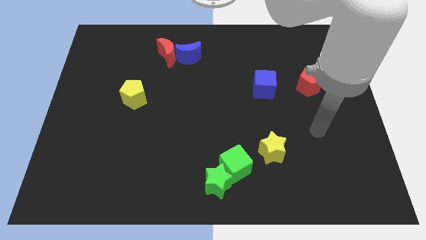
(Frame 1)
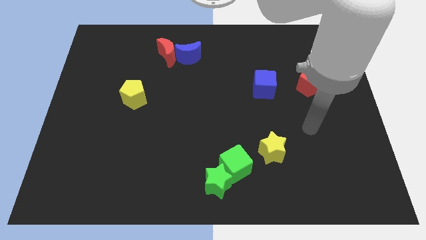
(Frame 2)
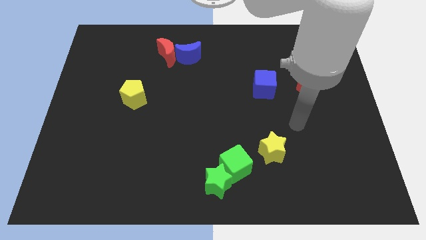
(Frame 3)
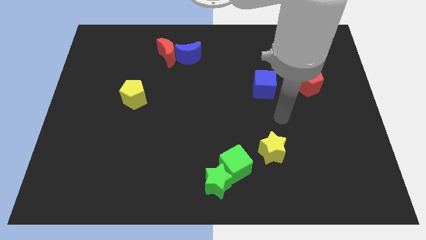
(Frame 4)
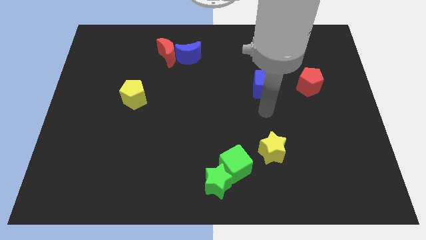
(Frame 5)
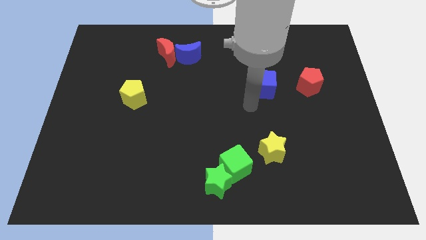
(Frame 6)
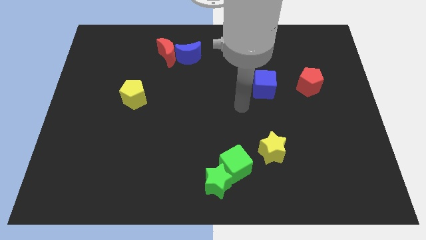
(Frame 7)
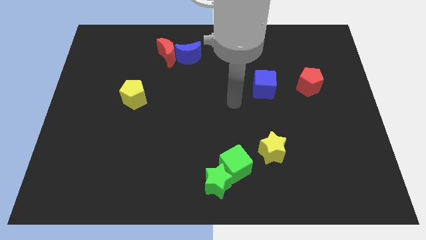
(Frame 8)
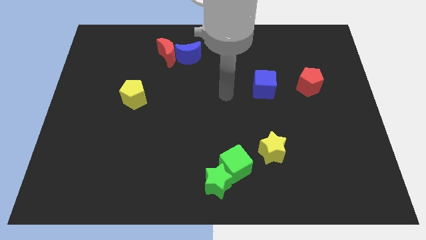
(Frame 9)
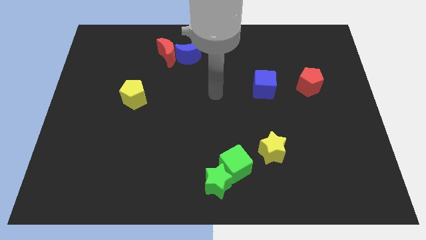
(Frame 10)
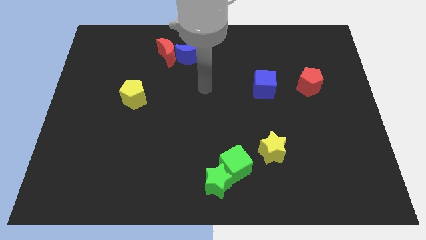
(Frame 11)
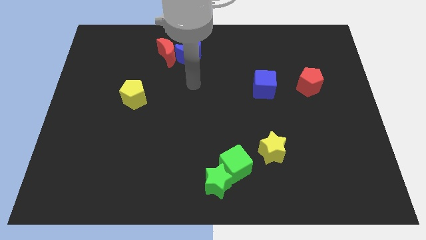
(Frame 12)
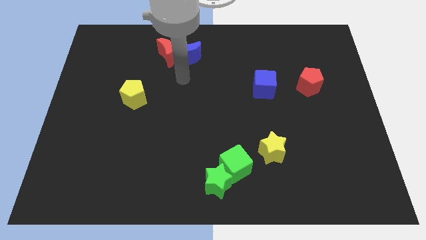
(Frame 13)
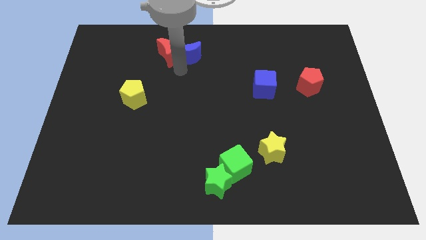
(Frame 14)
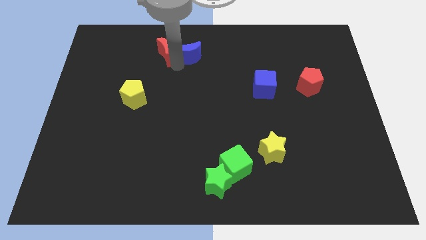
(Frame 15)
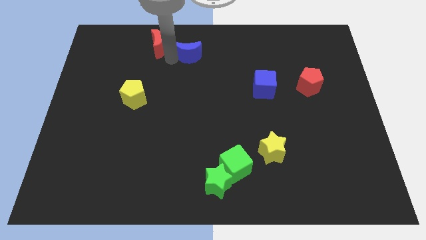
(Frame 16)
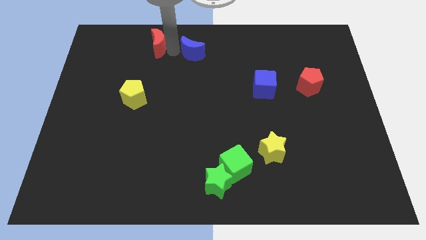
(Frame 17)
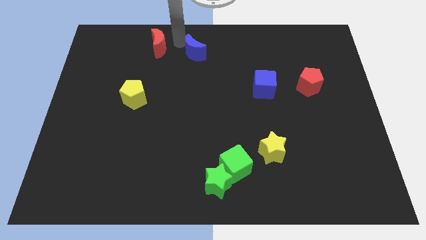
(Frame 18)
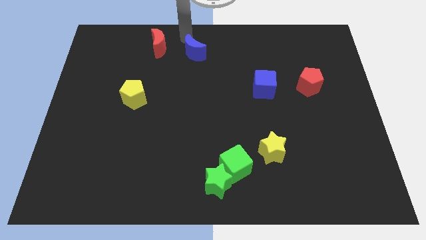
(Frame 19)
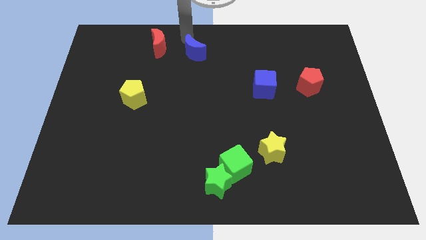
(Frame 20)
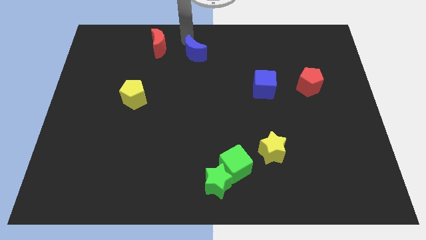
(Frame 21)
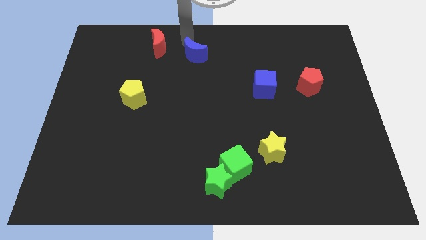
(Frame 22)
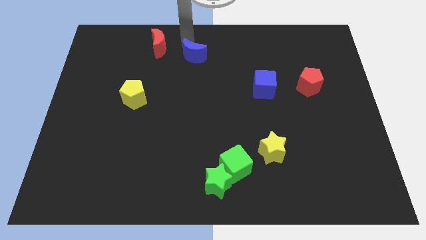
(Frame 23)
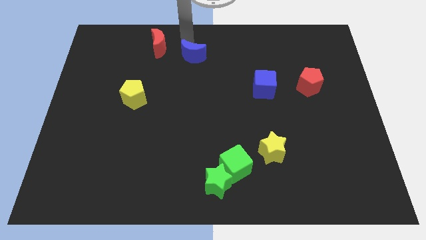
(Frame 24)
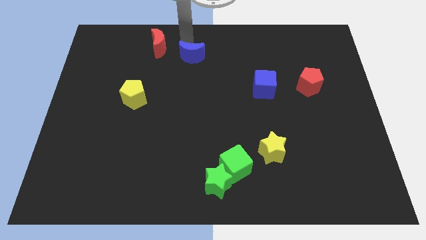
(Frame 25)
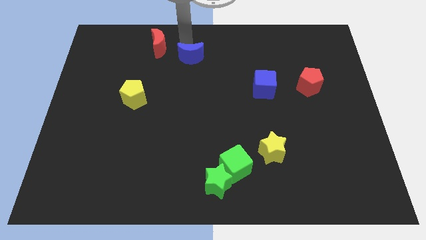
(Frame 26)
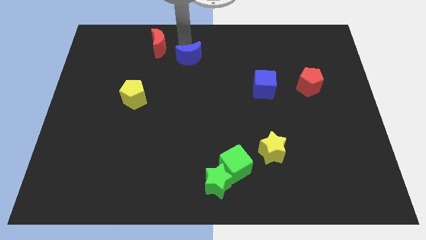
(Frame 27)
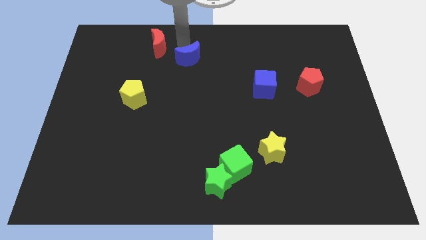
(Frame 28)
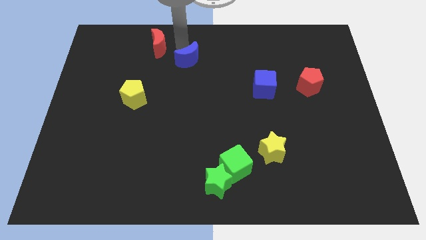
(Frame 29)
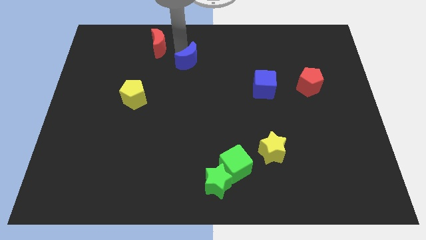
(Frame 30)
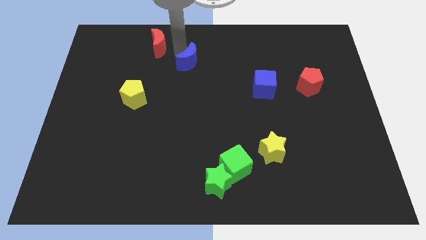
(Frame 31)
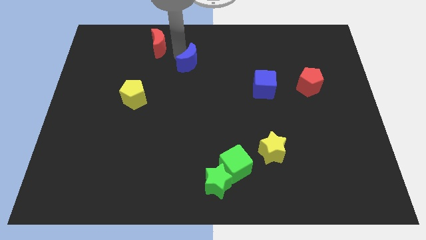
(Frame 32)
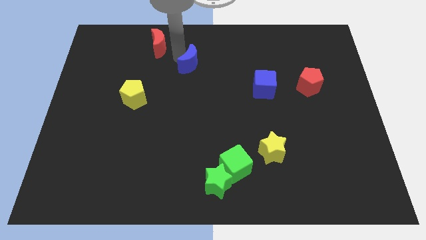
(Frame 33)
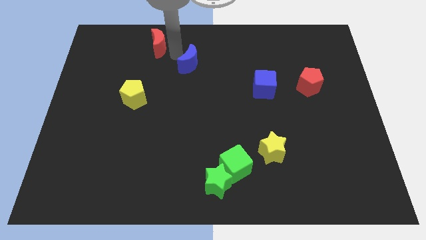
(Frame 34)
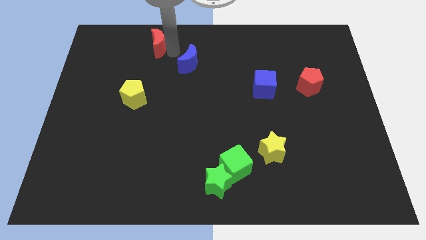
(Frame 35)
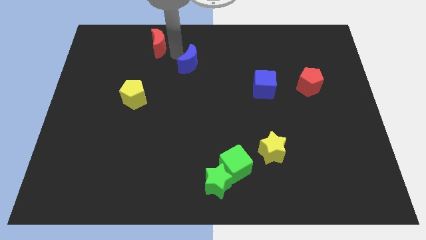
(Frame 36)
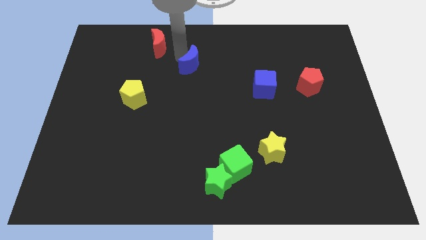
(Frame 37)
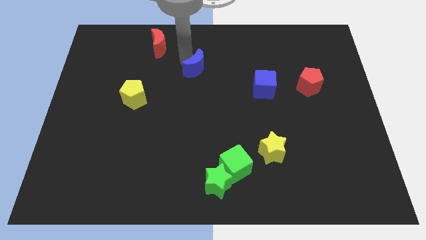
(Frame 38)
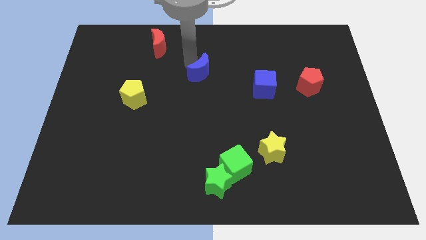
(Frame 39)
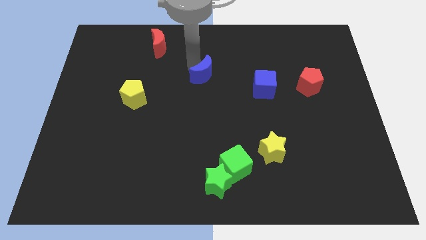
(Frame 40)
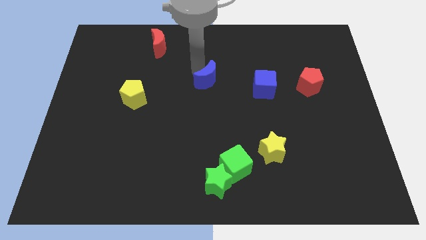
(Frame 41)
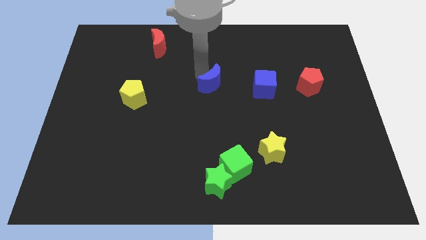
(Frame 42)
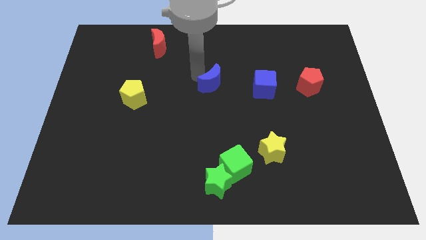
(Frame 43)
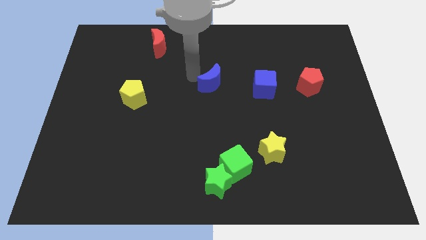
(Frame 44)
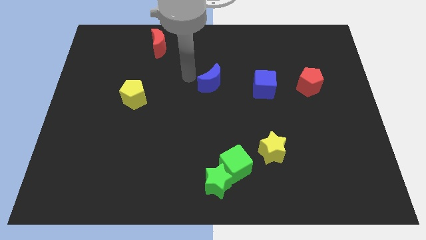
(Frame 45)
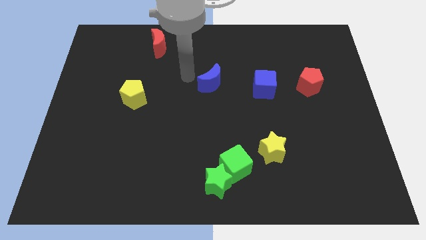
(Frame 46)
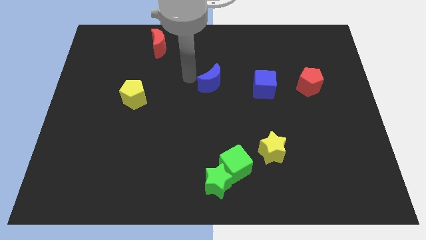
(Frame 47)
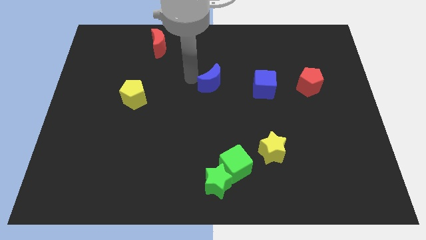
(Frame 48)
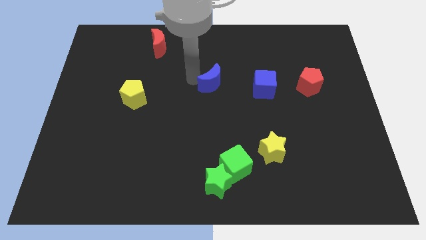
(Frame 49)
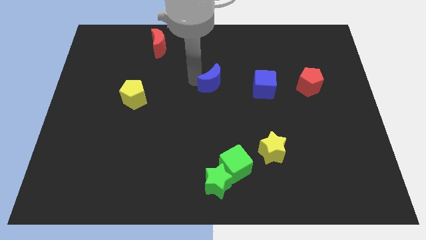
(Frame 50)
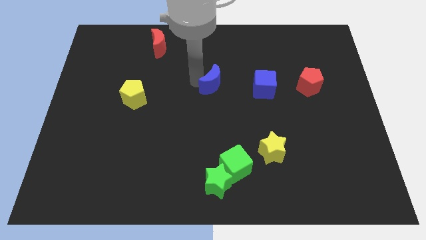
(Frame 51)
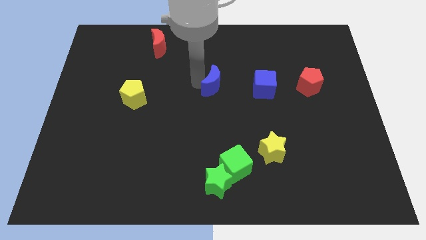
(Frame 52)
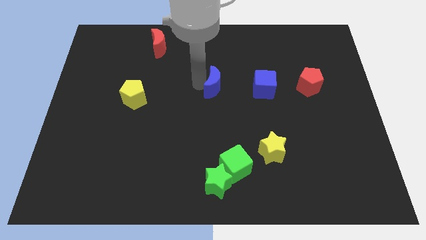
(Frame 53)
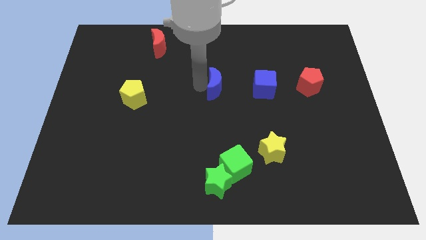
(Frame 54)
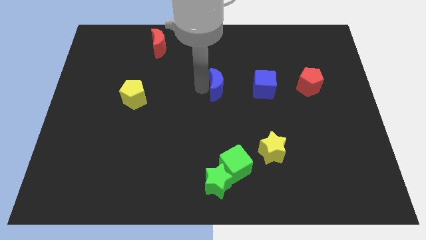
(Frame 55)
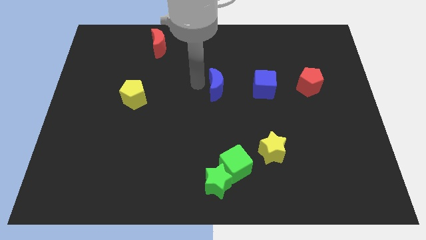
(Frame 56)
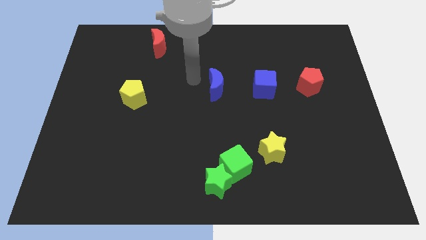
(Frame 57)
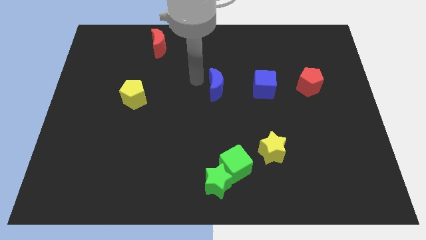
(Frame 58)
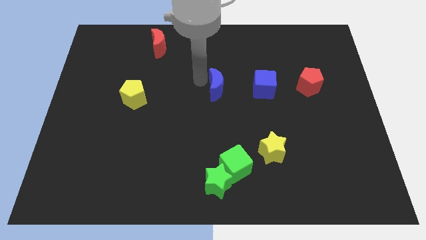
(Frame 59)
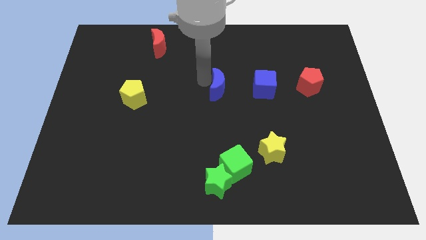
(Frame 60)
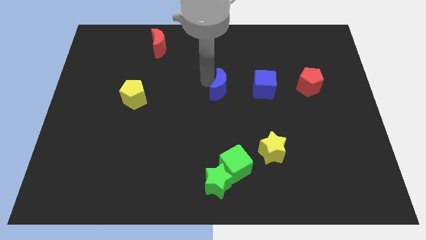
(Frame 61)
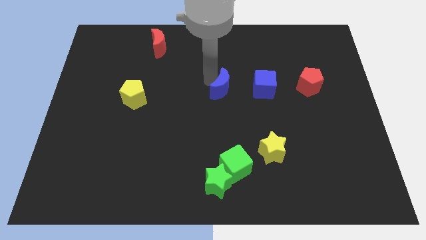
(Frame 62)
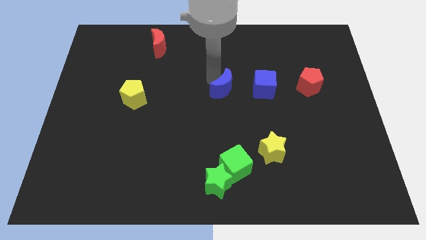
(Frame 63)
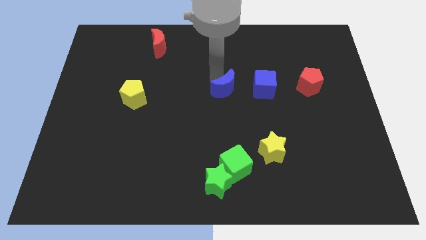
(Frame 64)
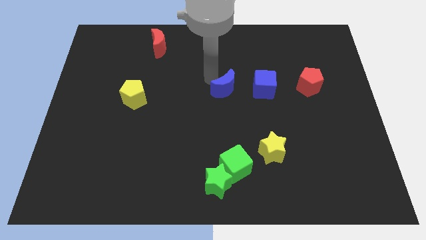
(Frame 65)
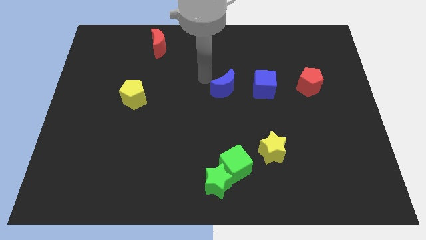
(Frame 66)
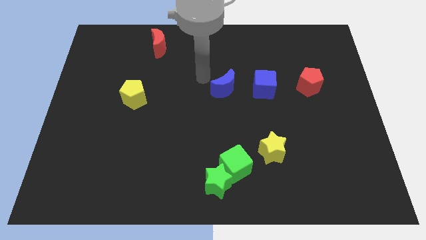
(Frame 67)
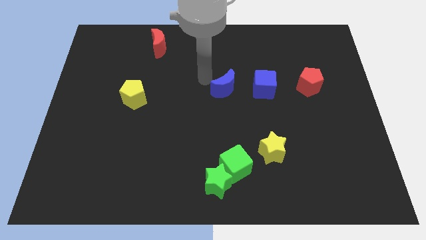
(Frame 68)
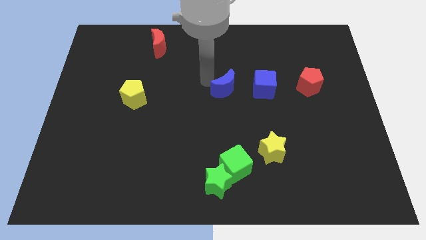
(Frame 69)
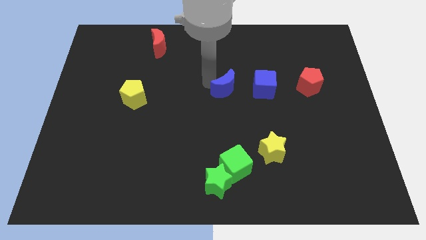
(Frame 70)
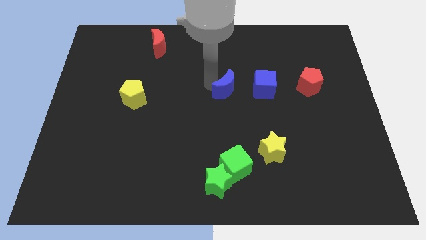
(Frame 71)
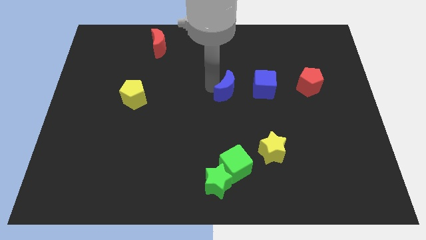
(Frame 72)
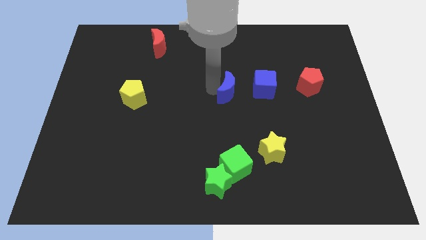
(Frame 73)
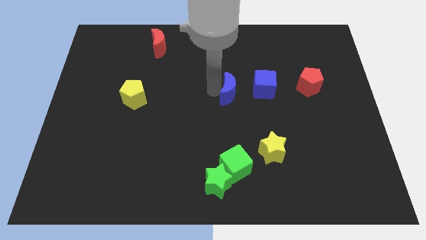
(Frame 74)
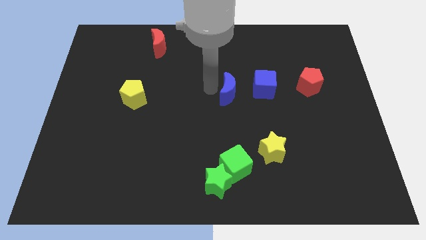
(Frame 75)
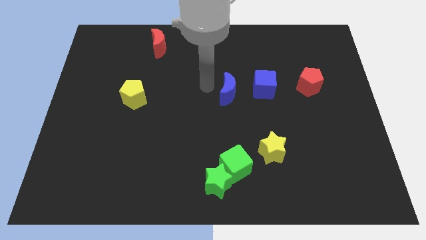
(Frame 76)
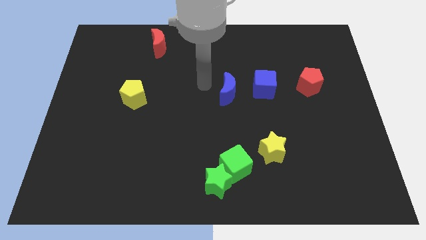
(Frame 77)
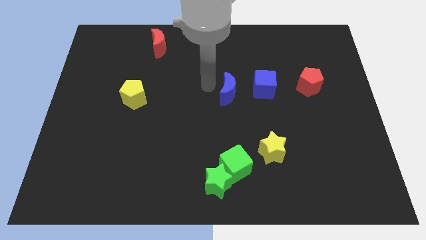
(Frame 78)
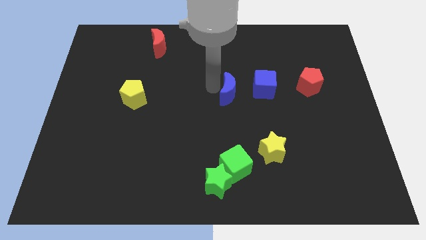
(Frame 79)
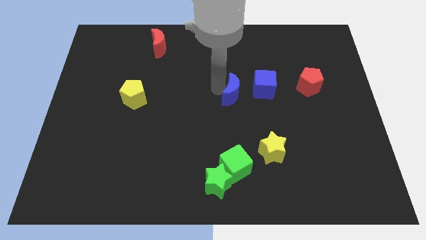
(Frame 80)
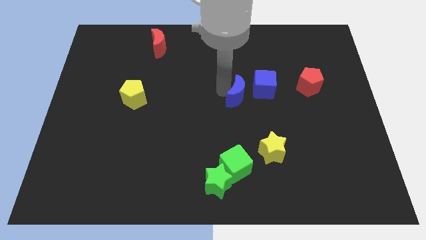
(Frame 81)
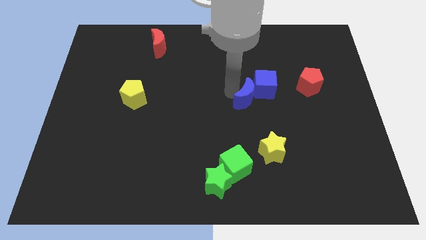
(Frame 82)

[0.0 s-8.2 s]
move the blue moon down and then right
